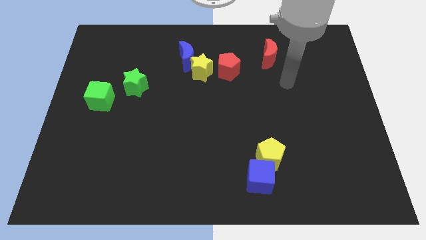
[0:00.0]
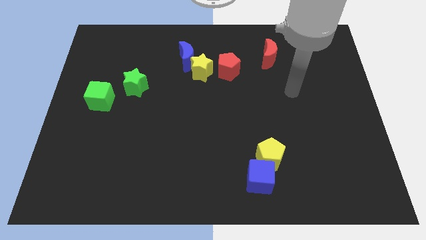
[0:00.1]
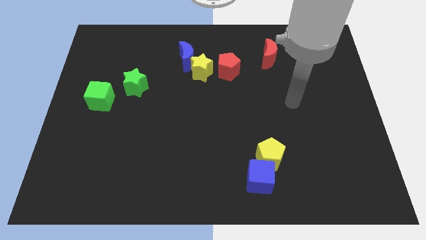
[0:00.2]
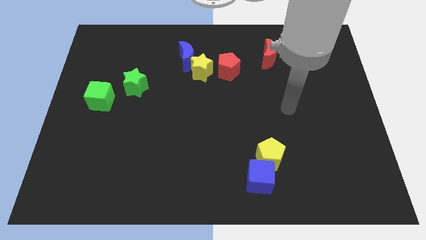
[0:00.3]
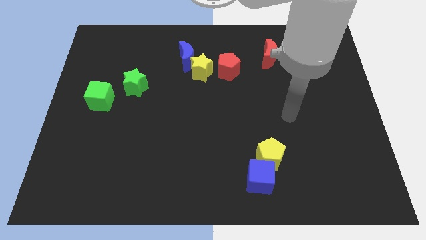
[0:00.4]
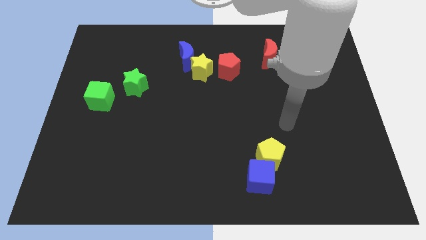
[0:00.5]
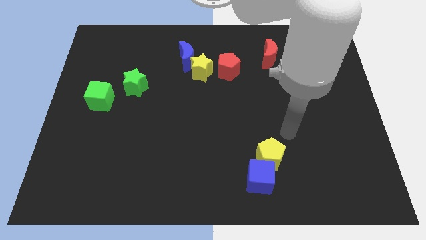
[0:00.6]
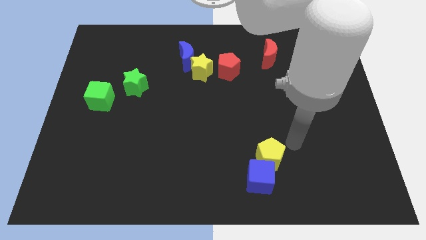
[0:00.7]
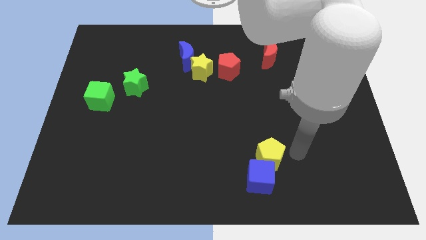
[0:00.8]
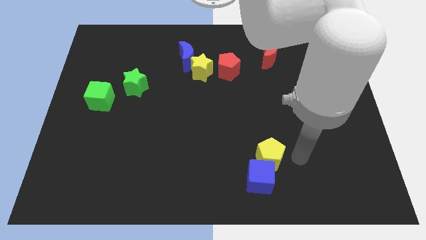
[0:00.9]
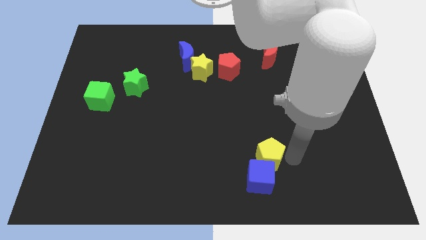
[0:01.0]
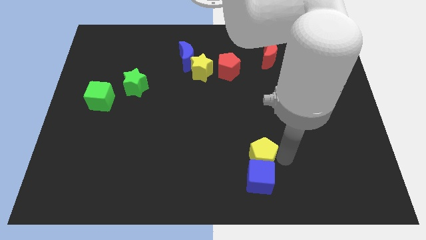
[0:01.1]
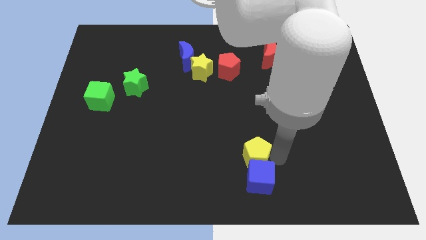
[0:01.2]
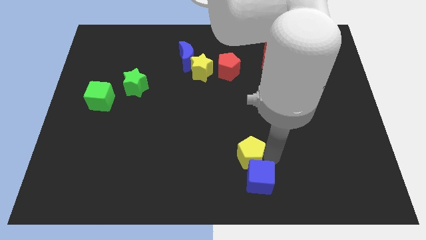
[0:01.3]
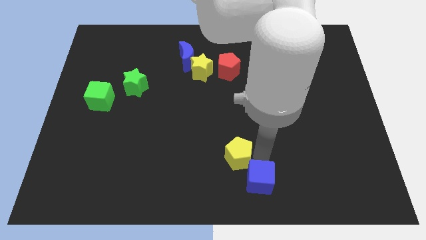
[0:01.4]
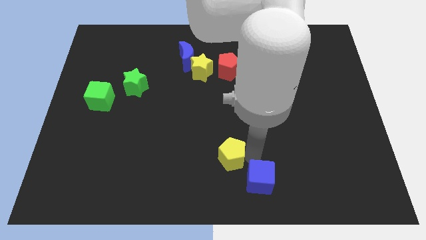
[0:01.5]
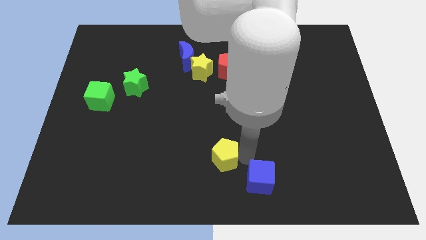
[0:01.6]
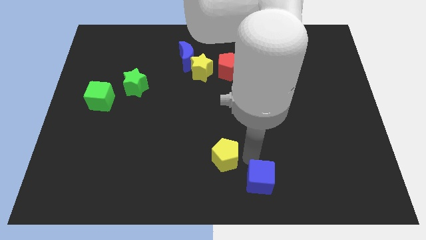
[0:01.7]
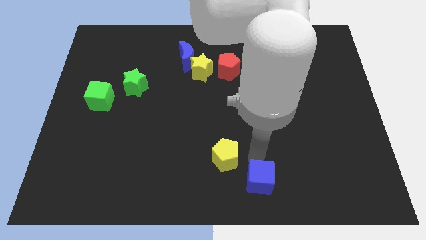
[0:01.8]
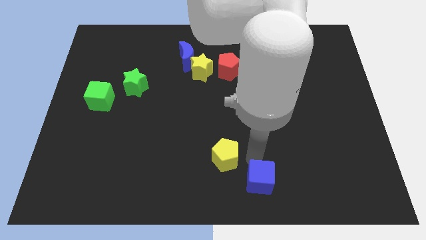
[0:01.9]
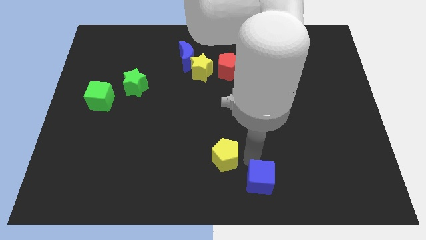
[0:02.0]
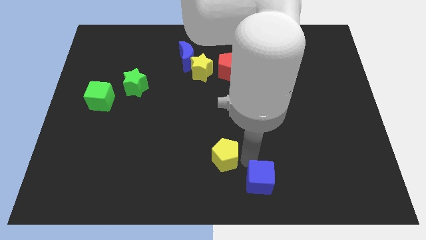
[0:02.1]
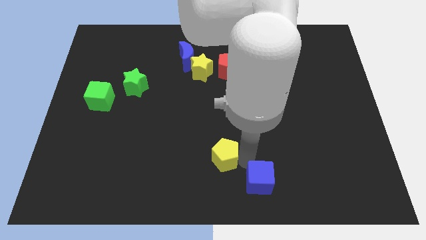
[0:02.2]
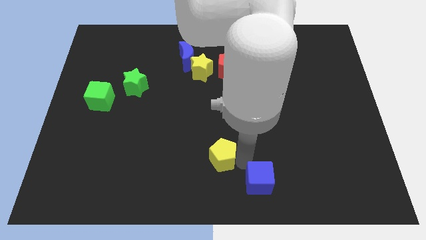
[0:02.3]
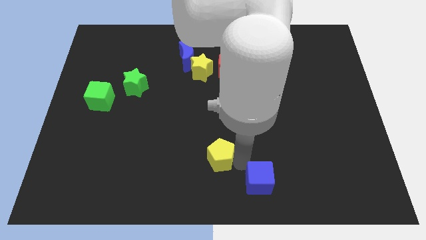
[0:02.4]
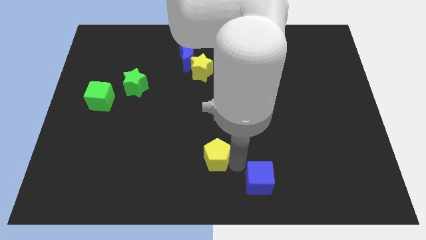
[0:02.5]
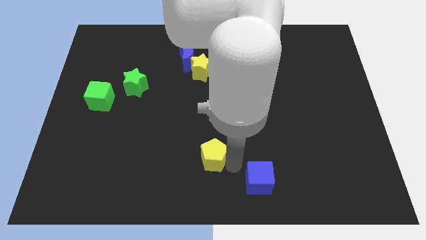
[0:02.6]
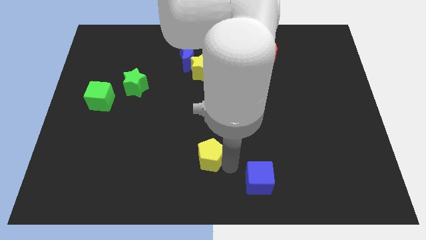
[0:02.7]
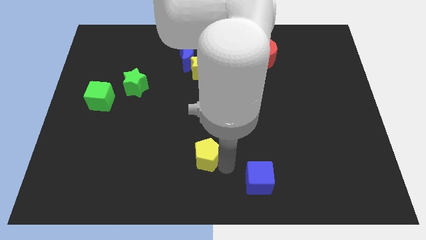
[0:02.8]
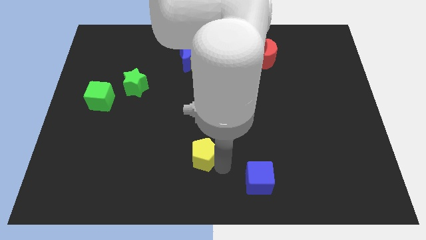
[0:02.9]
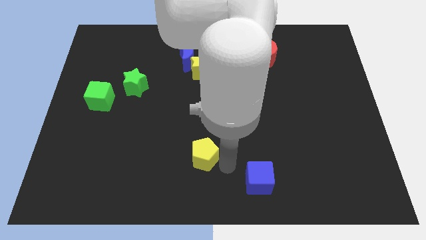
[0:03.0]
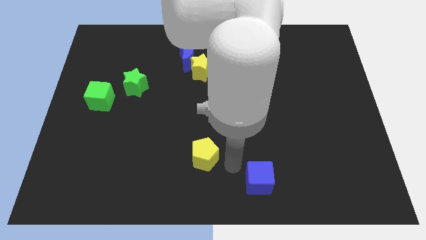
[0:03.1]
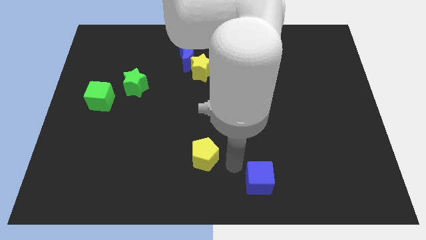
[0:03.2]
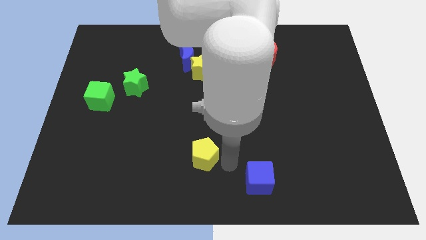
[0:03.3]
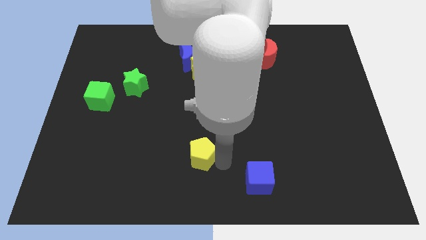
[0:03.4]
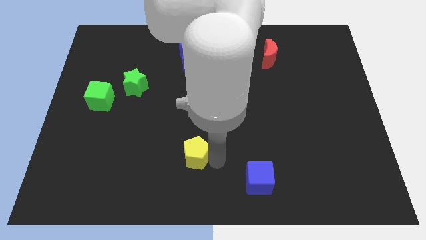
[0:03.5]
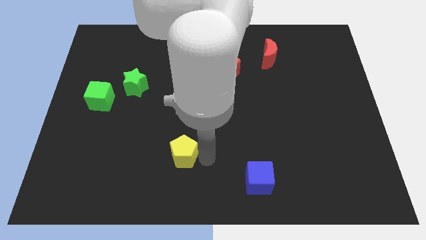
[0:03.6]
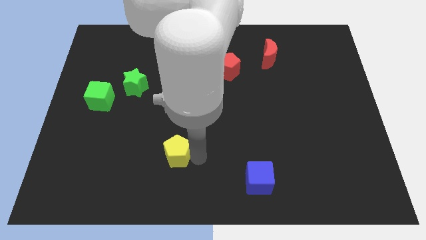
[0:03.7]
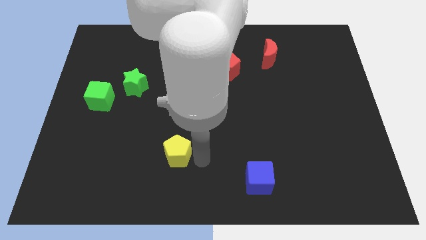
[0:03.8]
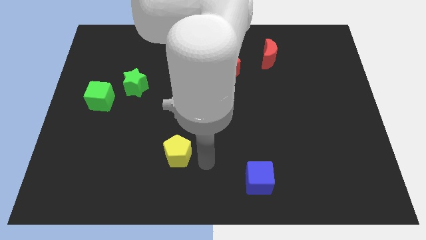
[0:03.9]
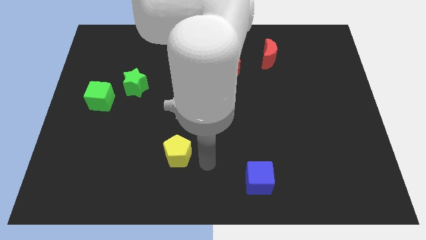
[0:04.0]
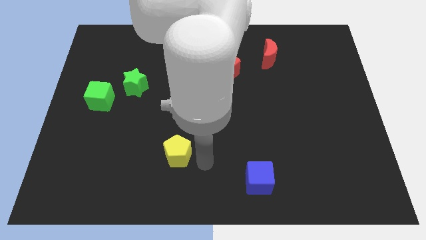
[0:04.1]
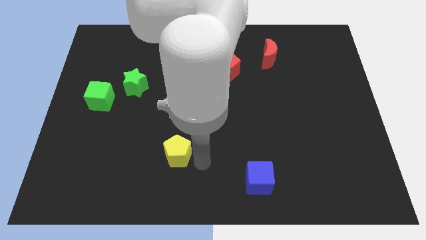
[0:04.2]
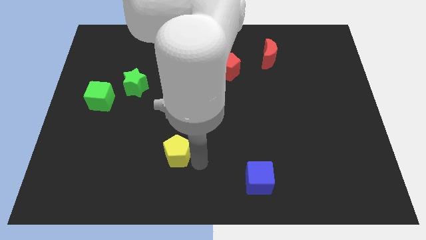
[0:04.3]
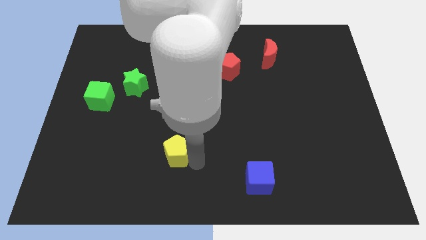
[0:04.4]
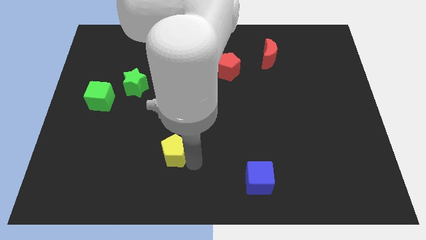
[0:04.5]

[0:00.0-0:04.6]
push the yellow pentagon left

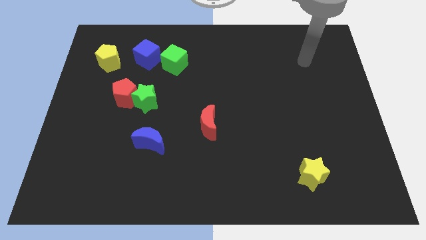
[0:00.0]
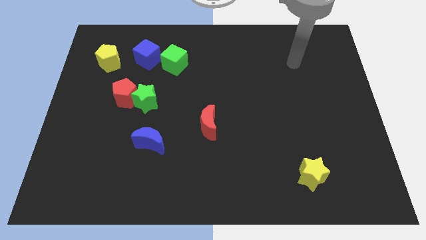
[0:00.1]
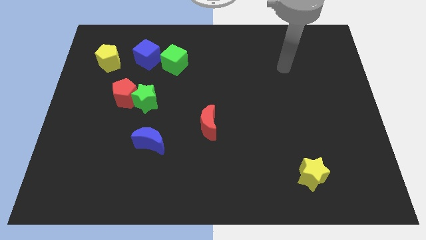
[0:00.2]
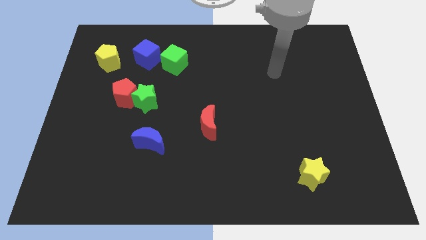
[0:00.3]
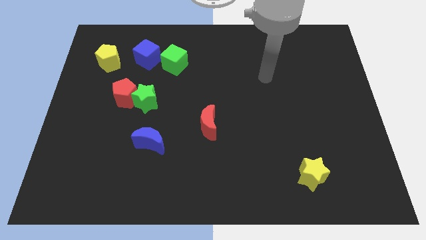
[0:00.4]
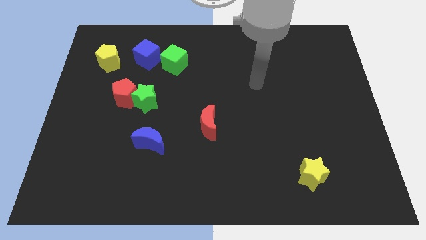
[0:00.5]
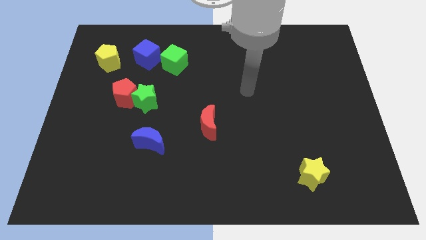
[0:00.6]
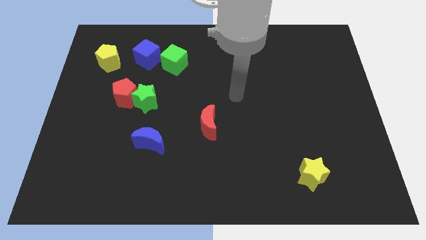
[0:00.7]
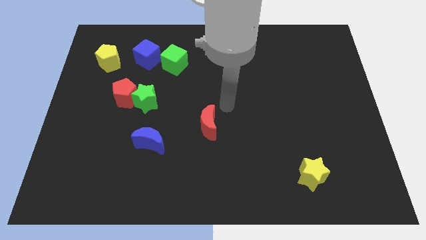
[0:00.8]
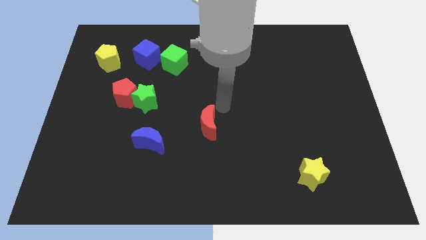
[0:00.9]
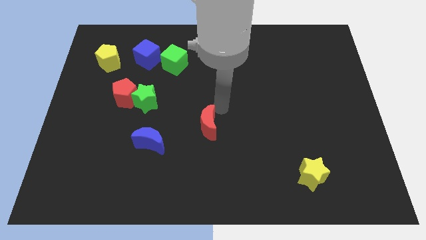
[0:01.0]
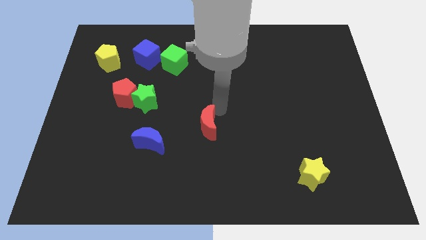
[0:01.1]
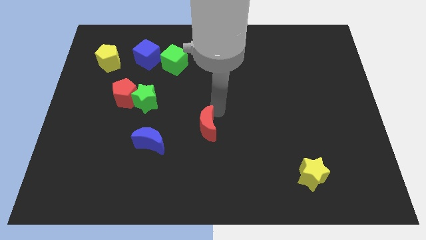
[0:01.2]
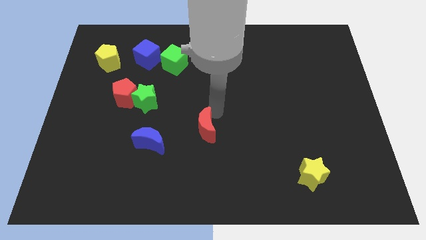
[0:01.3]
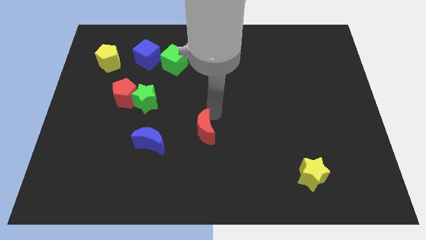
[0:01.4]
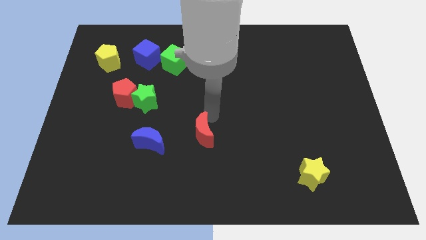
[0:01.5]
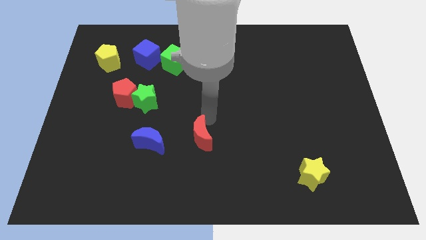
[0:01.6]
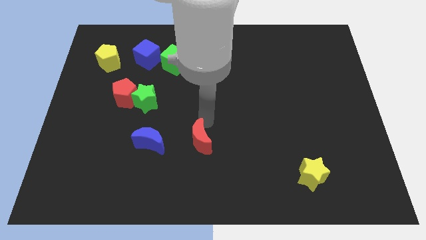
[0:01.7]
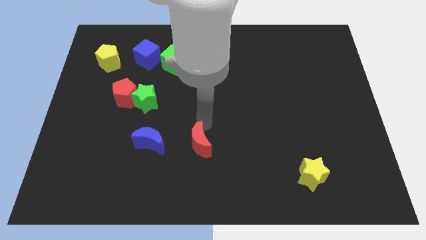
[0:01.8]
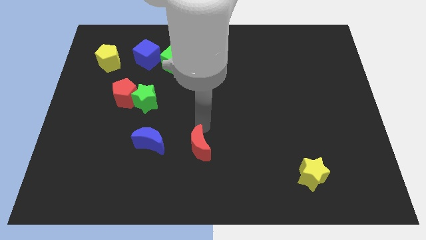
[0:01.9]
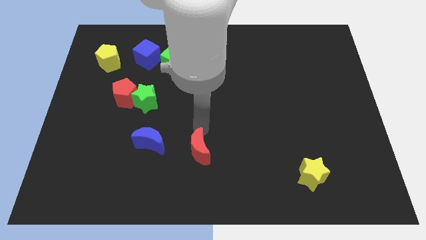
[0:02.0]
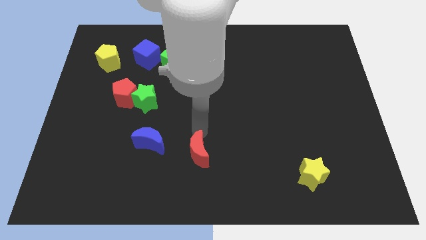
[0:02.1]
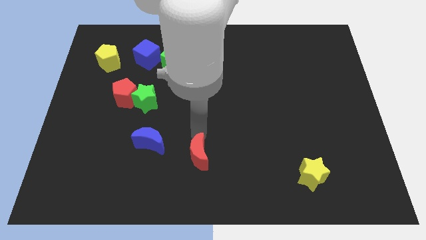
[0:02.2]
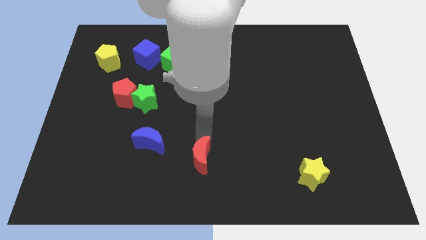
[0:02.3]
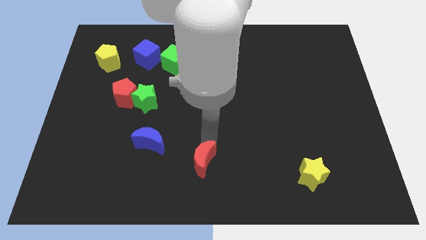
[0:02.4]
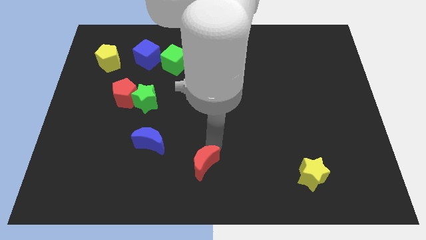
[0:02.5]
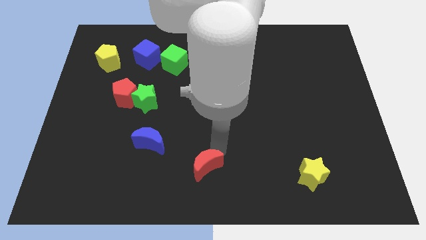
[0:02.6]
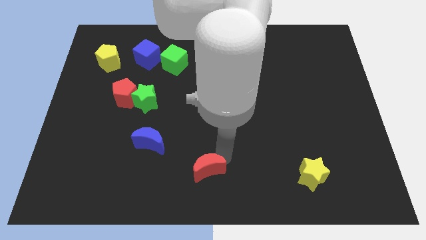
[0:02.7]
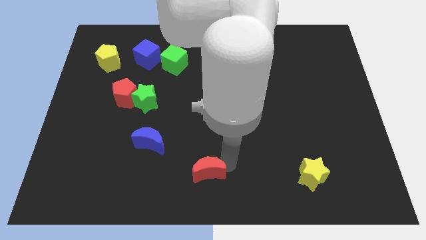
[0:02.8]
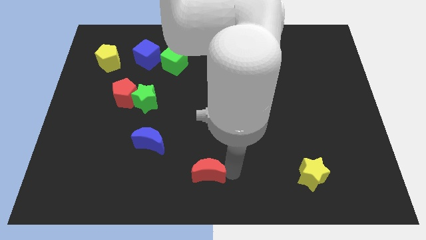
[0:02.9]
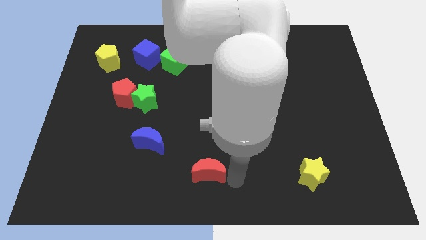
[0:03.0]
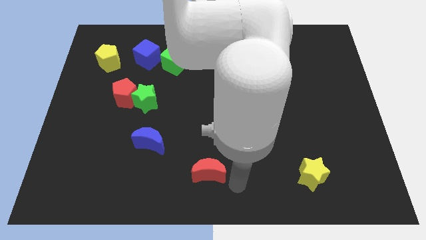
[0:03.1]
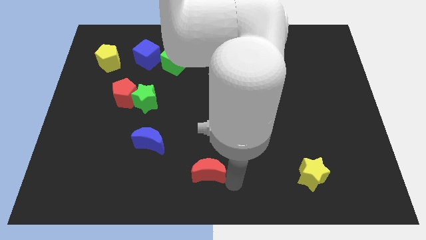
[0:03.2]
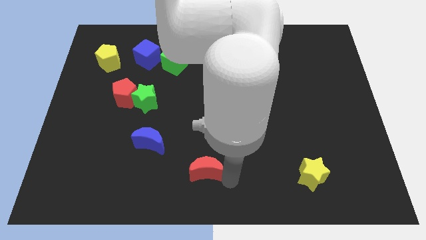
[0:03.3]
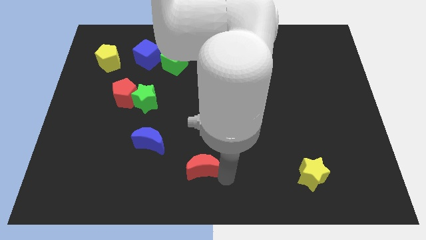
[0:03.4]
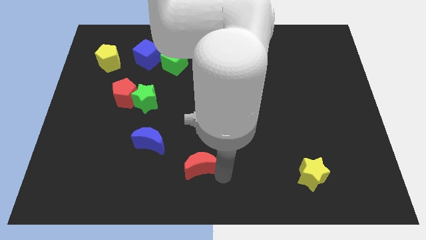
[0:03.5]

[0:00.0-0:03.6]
slightly slide the red moon downwards and left
